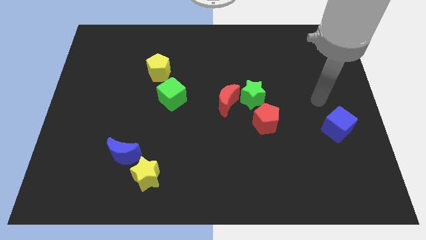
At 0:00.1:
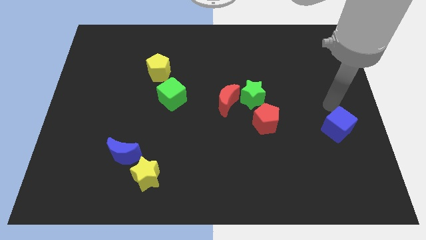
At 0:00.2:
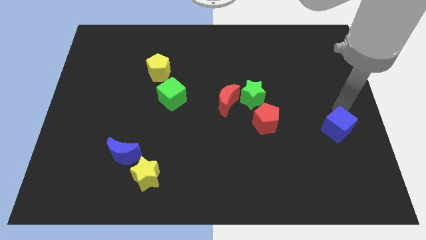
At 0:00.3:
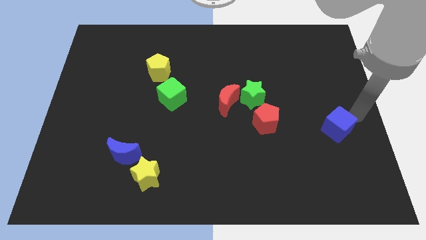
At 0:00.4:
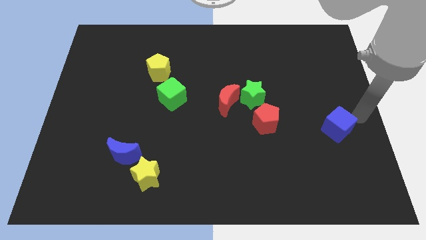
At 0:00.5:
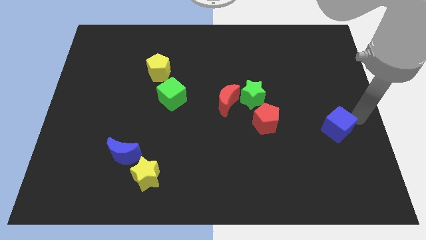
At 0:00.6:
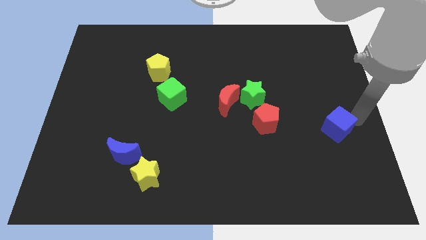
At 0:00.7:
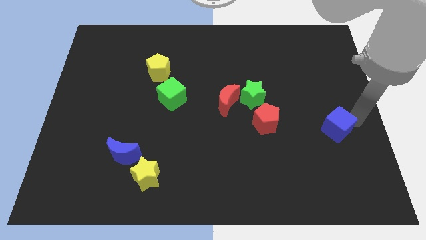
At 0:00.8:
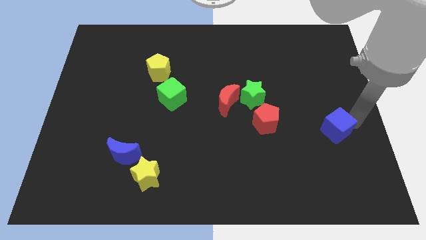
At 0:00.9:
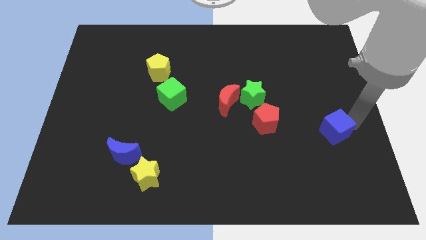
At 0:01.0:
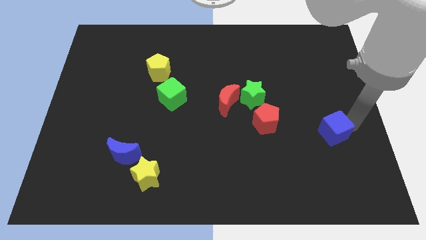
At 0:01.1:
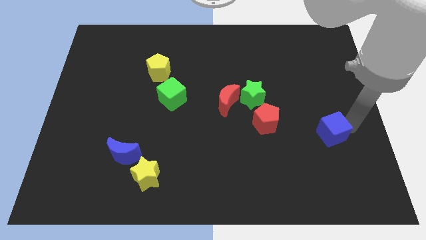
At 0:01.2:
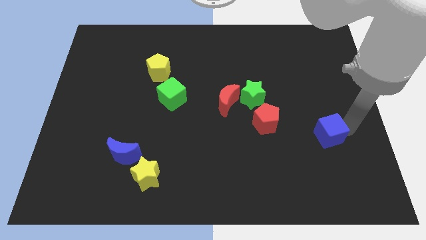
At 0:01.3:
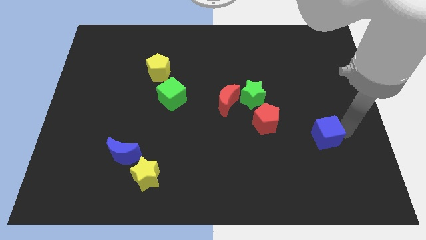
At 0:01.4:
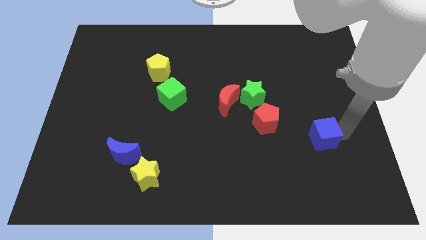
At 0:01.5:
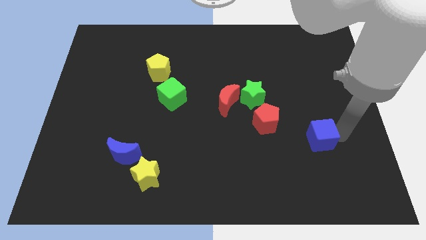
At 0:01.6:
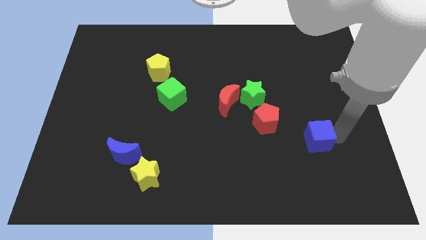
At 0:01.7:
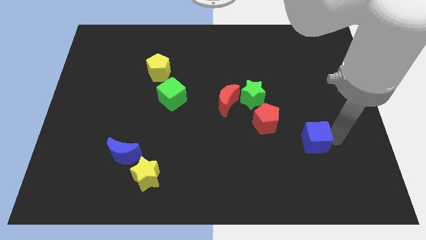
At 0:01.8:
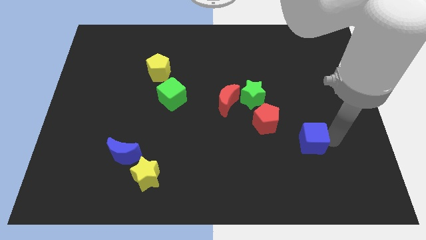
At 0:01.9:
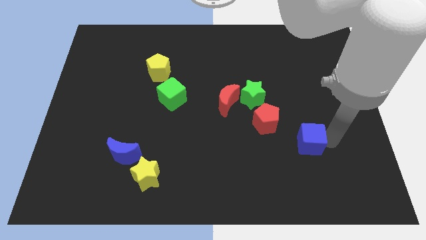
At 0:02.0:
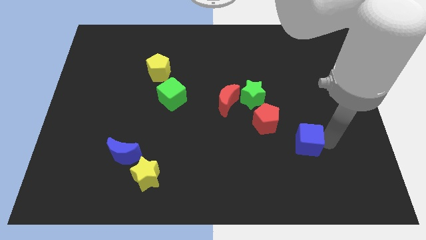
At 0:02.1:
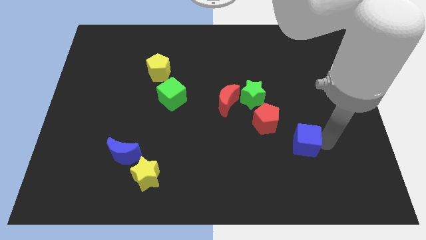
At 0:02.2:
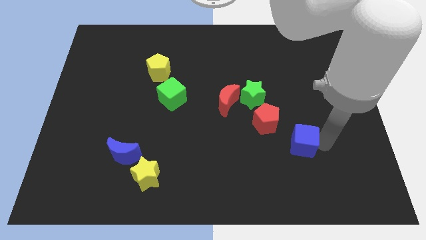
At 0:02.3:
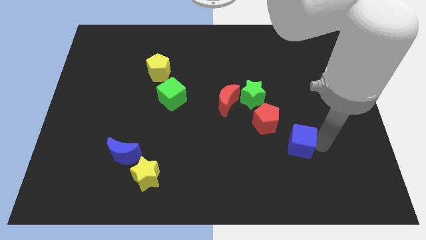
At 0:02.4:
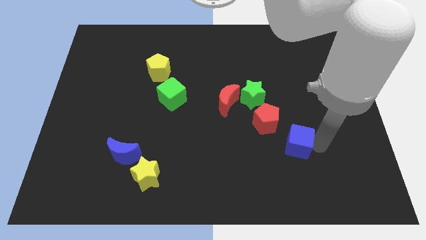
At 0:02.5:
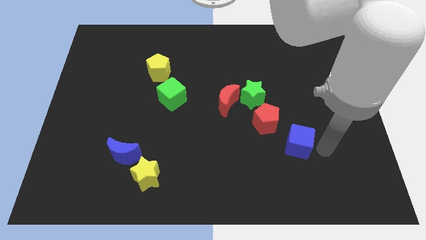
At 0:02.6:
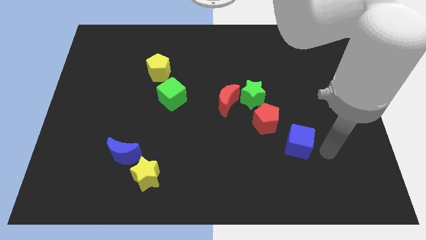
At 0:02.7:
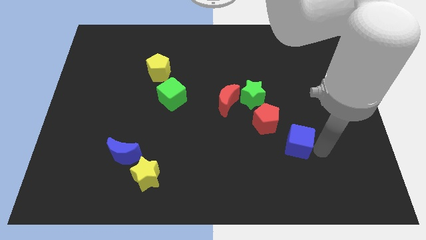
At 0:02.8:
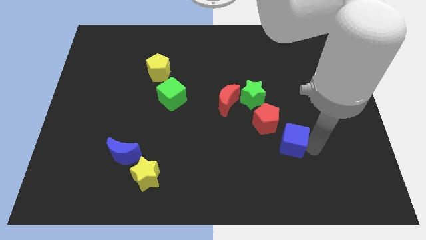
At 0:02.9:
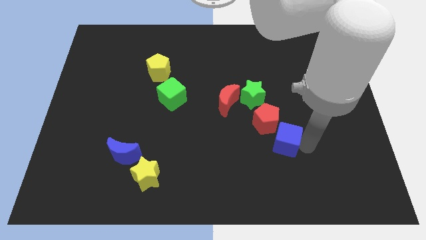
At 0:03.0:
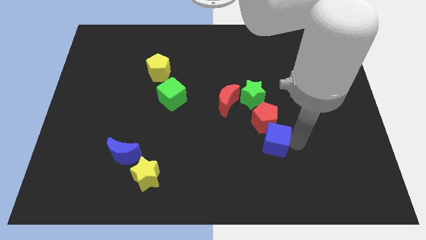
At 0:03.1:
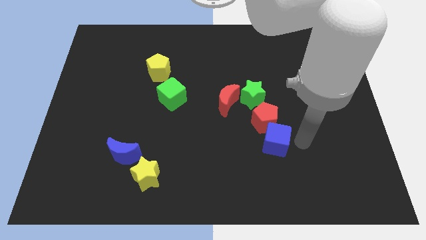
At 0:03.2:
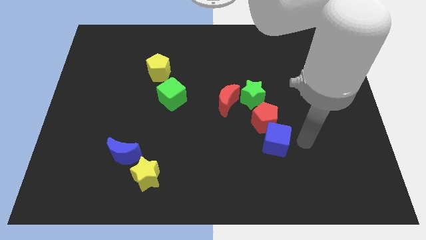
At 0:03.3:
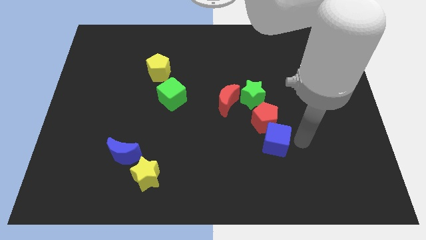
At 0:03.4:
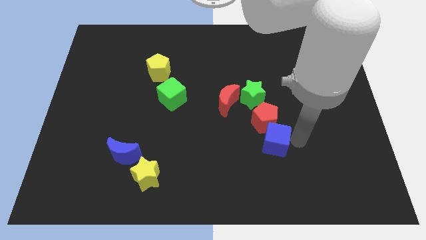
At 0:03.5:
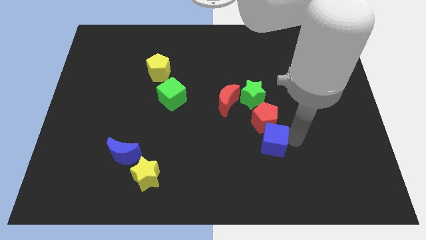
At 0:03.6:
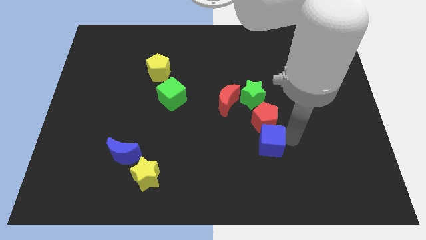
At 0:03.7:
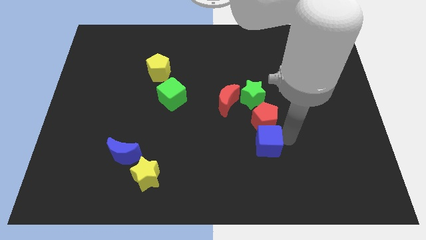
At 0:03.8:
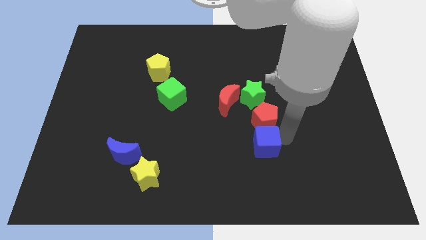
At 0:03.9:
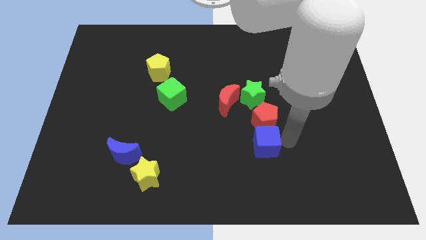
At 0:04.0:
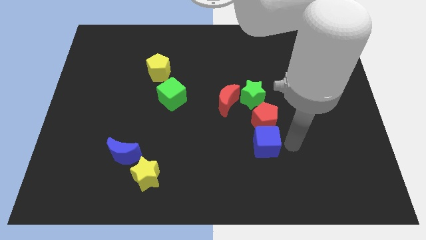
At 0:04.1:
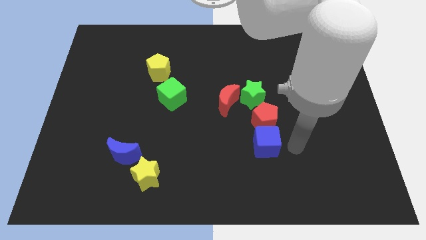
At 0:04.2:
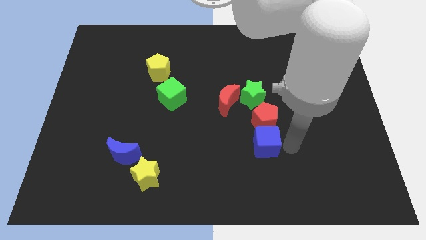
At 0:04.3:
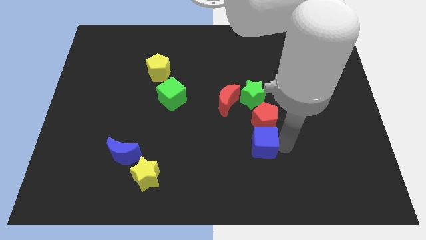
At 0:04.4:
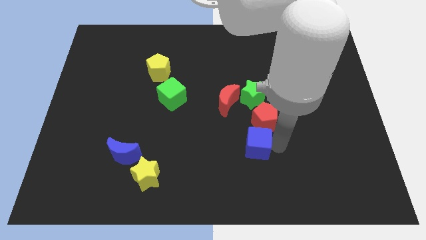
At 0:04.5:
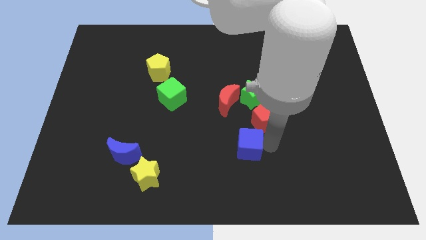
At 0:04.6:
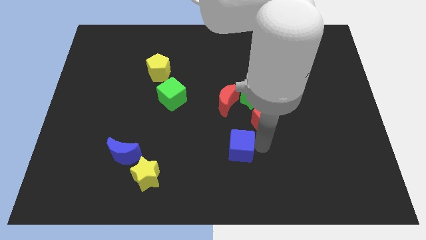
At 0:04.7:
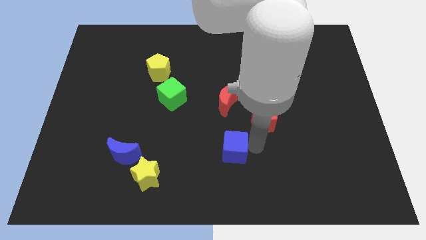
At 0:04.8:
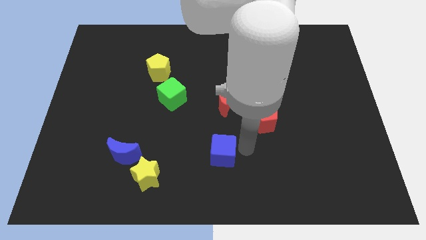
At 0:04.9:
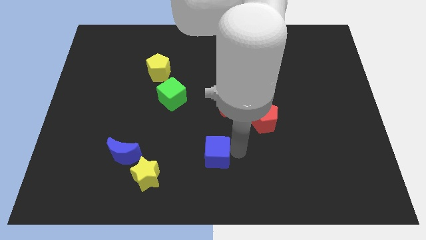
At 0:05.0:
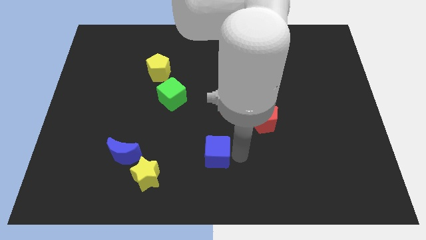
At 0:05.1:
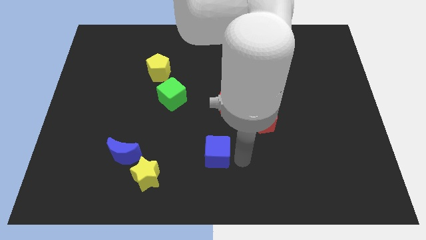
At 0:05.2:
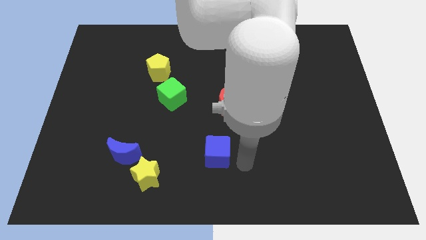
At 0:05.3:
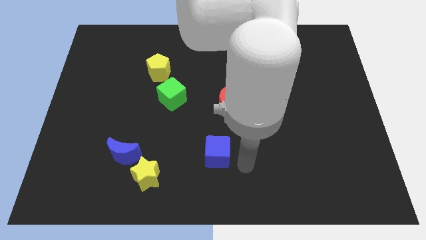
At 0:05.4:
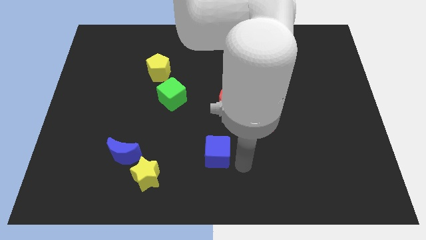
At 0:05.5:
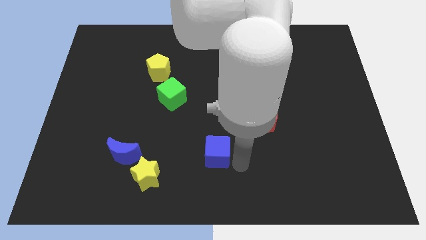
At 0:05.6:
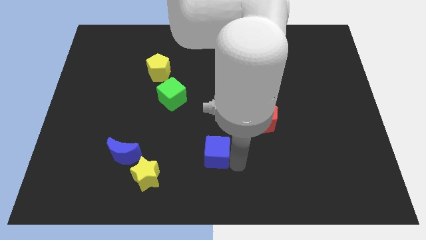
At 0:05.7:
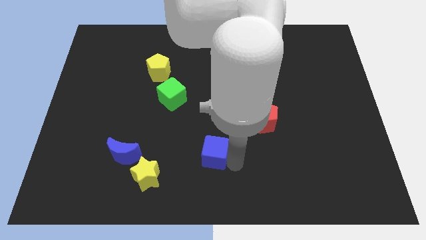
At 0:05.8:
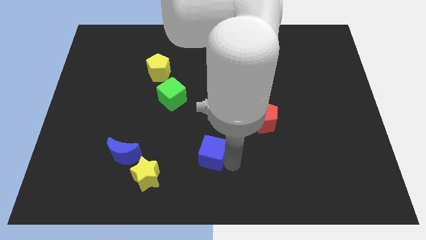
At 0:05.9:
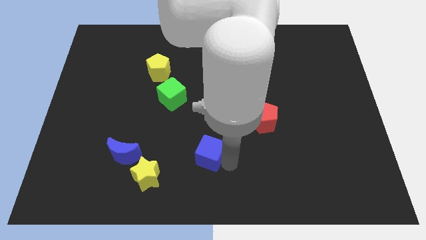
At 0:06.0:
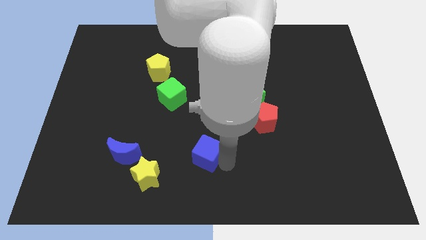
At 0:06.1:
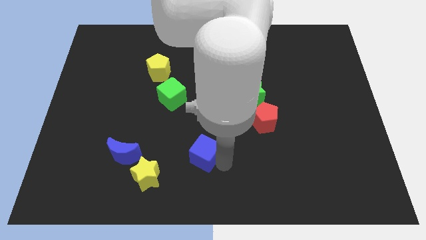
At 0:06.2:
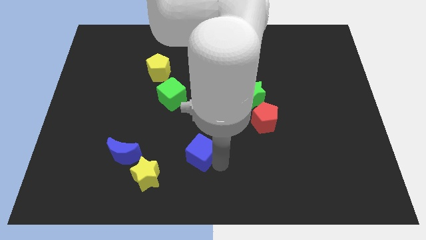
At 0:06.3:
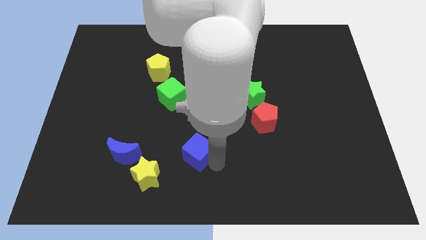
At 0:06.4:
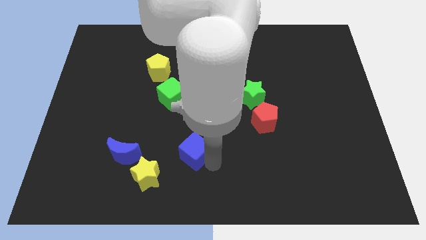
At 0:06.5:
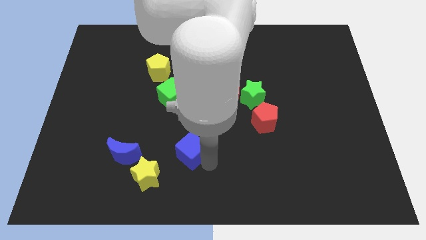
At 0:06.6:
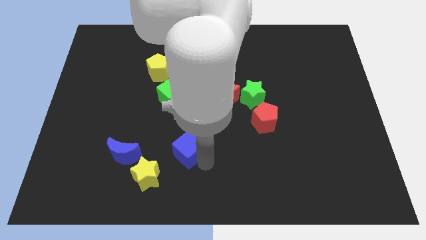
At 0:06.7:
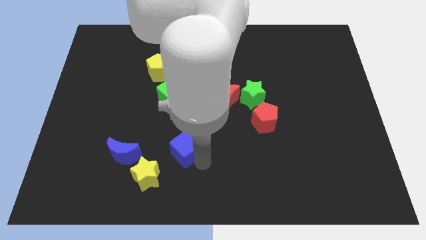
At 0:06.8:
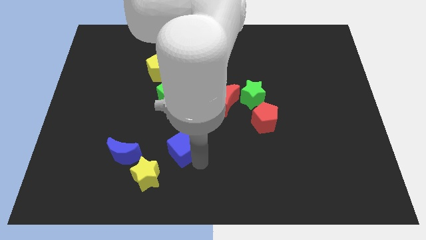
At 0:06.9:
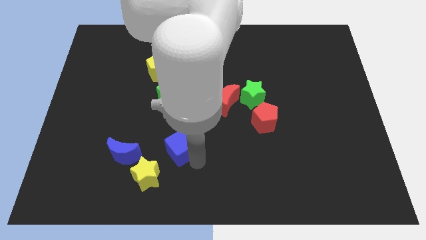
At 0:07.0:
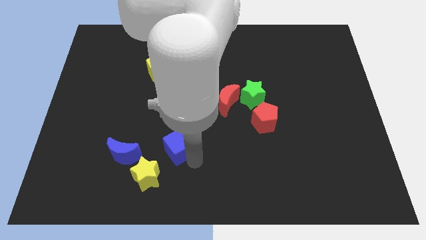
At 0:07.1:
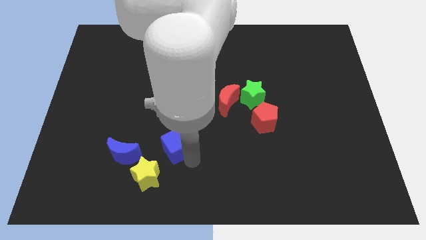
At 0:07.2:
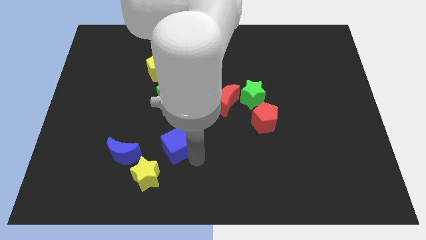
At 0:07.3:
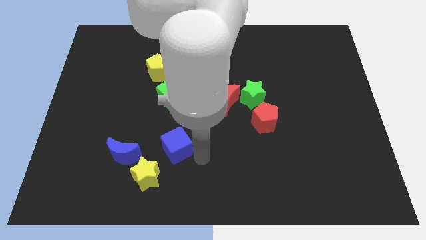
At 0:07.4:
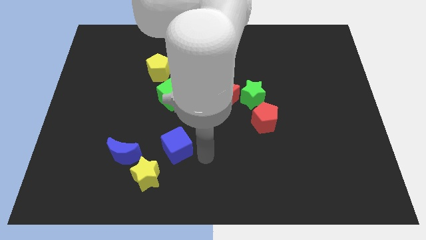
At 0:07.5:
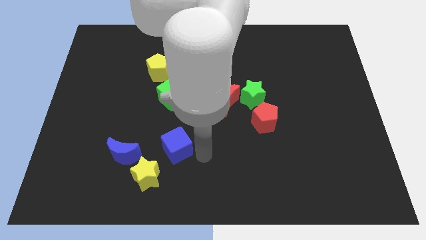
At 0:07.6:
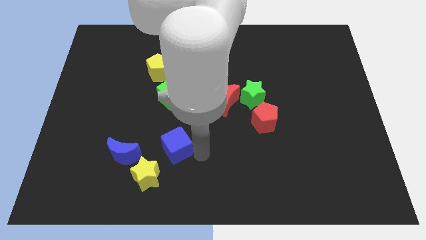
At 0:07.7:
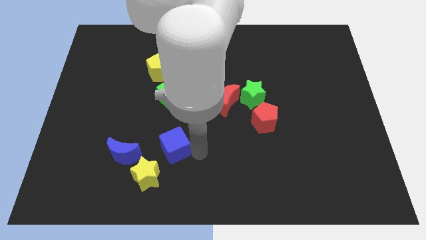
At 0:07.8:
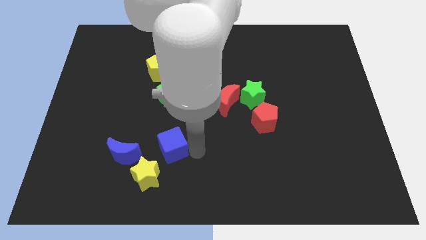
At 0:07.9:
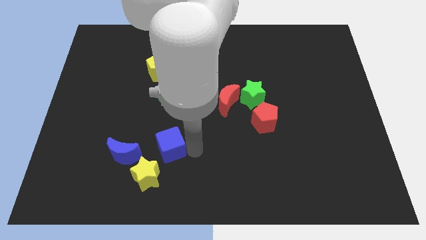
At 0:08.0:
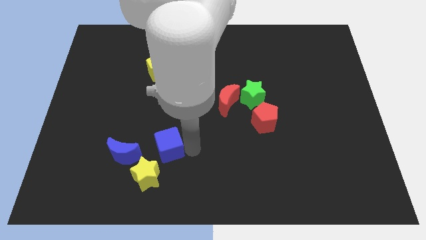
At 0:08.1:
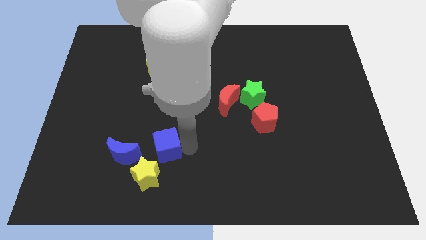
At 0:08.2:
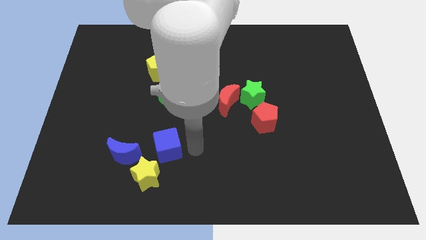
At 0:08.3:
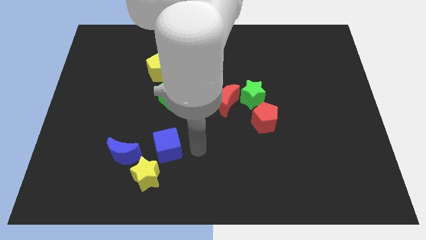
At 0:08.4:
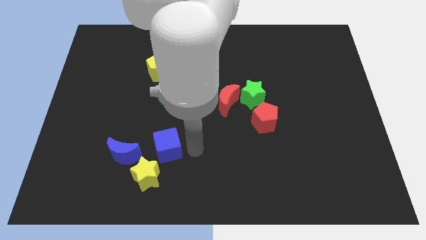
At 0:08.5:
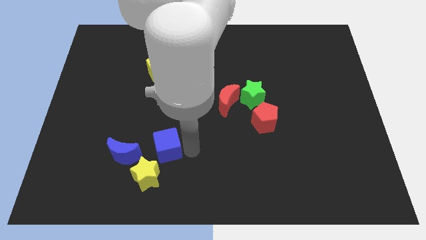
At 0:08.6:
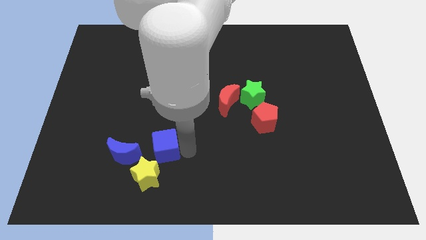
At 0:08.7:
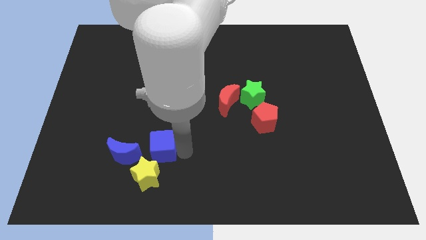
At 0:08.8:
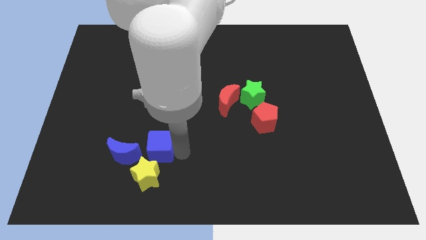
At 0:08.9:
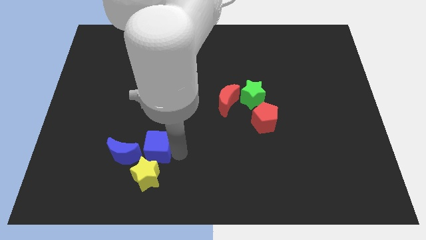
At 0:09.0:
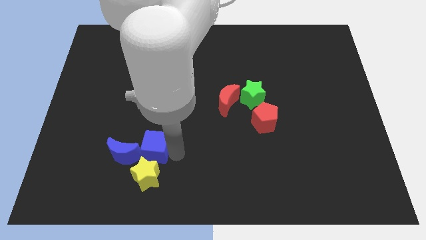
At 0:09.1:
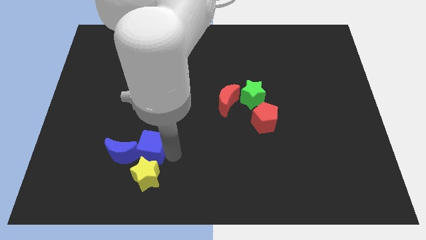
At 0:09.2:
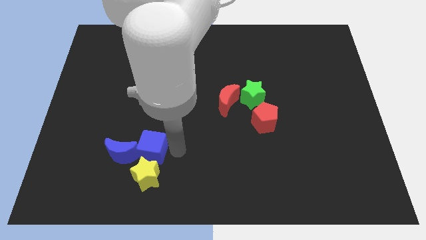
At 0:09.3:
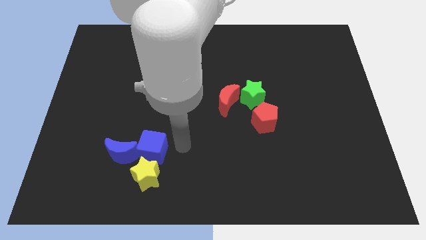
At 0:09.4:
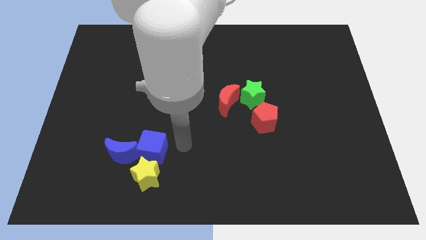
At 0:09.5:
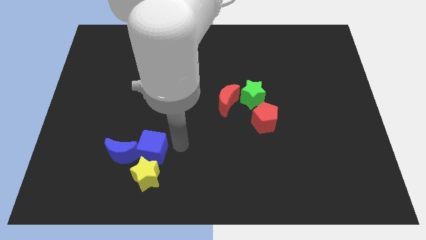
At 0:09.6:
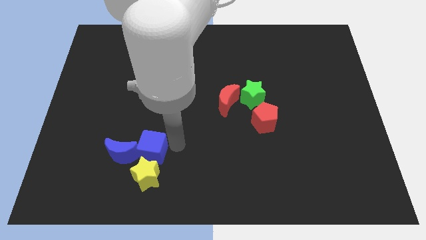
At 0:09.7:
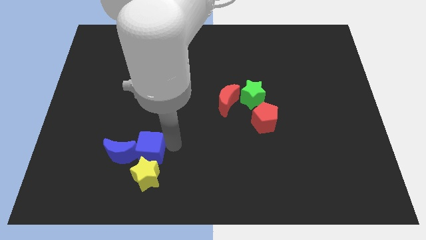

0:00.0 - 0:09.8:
move the blue cube next to the blue moon
